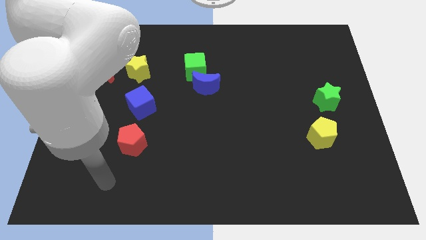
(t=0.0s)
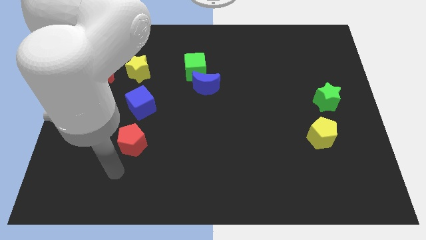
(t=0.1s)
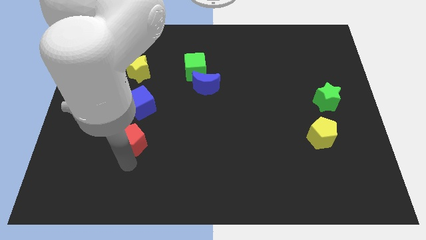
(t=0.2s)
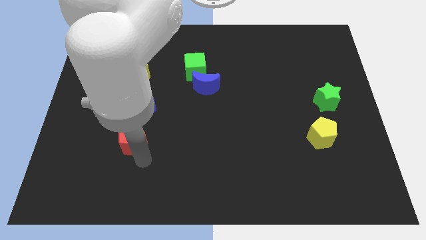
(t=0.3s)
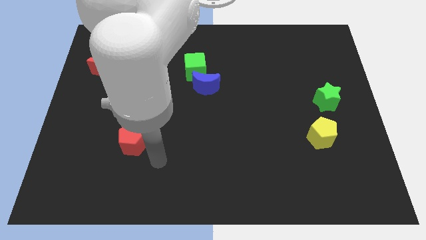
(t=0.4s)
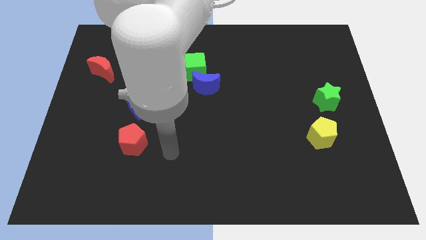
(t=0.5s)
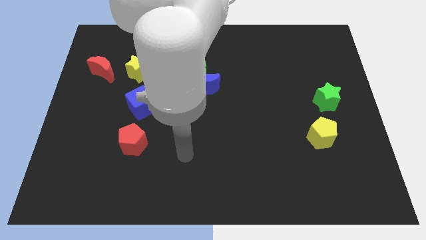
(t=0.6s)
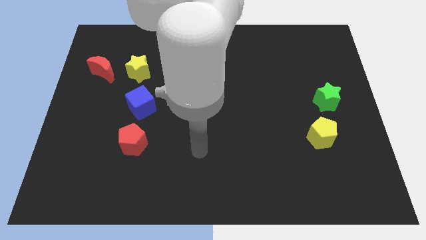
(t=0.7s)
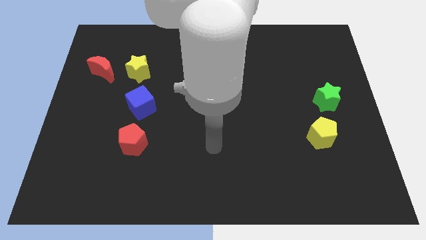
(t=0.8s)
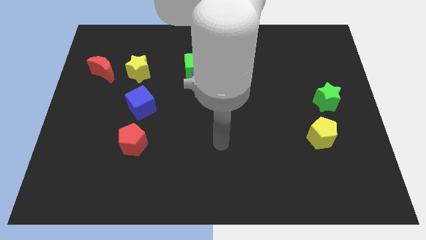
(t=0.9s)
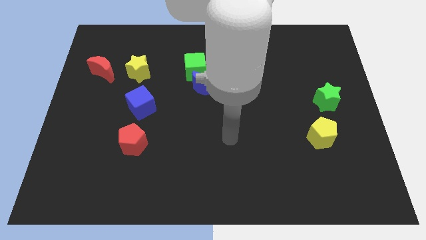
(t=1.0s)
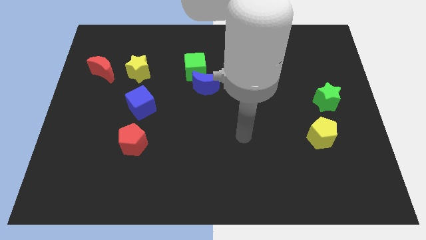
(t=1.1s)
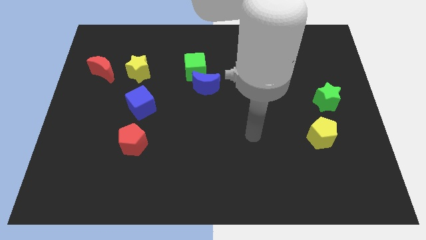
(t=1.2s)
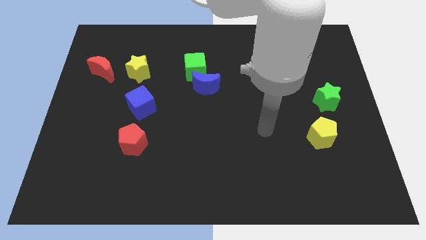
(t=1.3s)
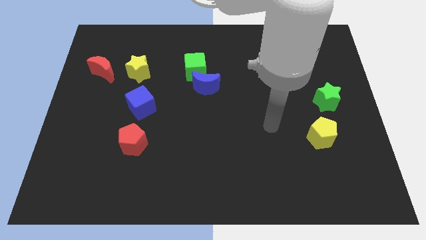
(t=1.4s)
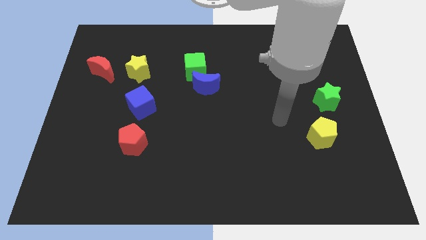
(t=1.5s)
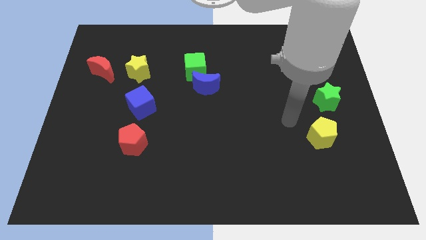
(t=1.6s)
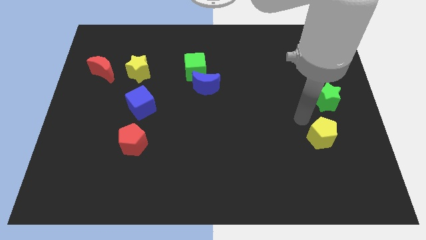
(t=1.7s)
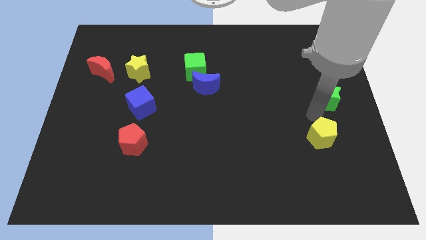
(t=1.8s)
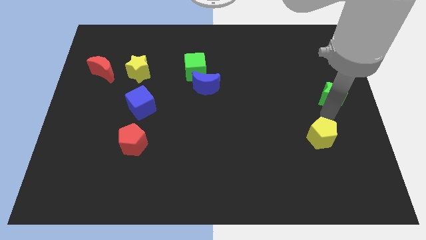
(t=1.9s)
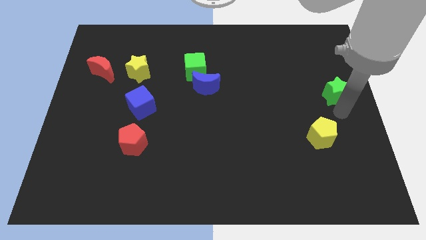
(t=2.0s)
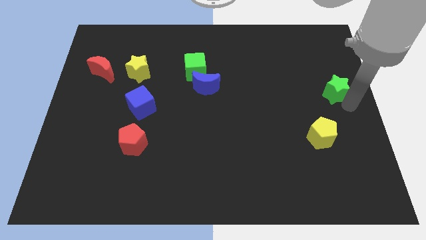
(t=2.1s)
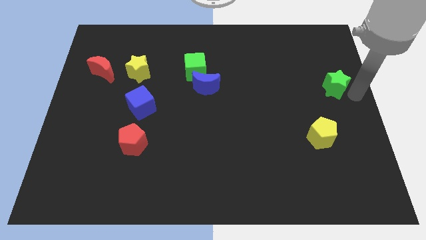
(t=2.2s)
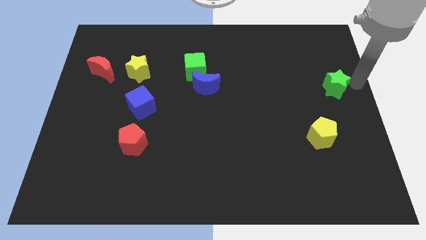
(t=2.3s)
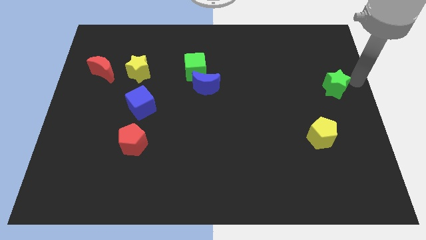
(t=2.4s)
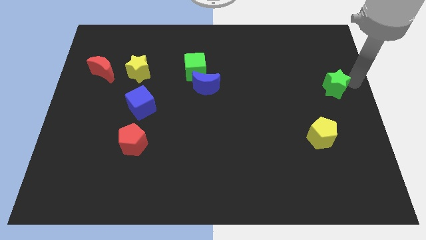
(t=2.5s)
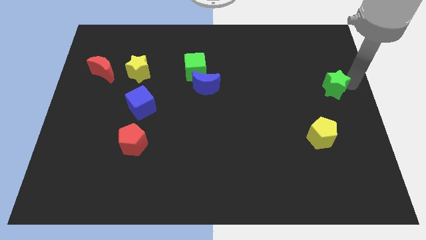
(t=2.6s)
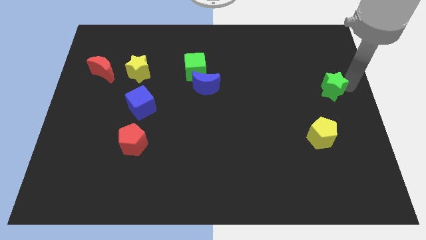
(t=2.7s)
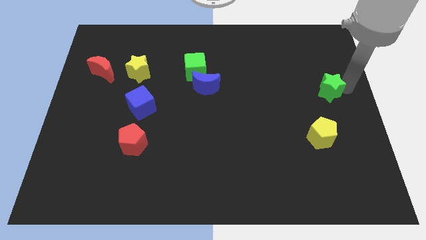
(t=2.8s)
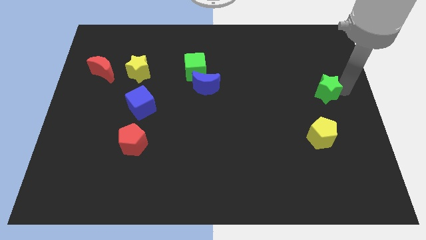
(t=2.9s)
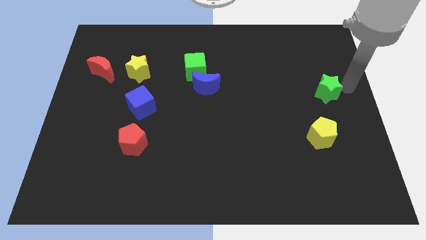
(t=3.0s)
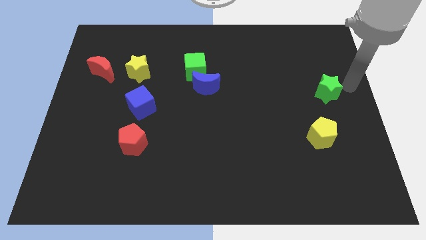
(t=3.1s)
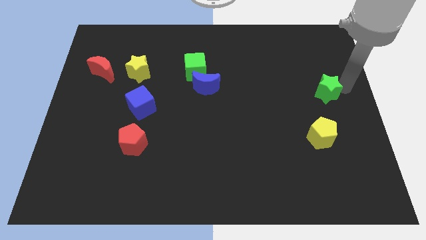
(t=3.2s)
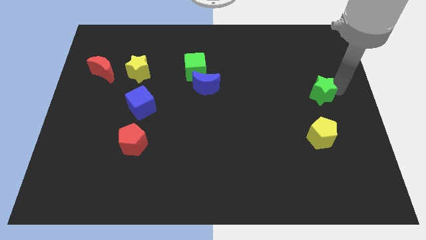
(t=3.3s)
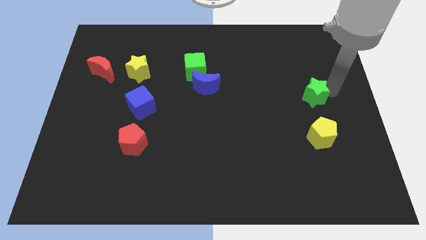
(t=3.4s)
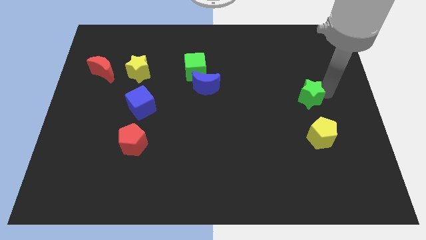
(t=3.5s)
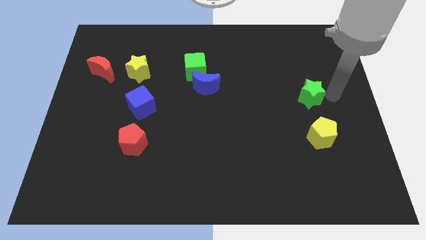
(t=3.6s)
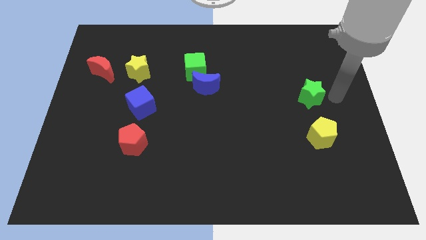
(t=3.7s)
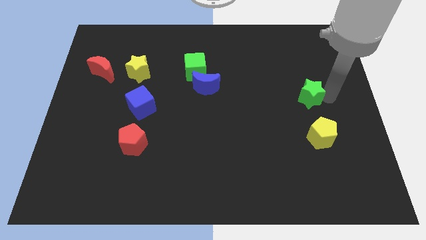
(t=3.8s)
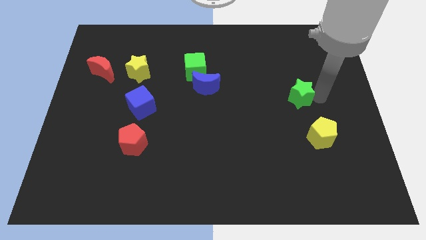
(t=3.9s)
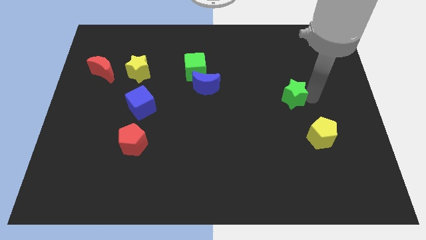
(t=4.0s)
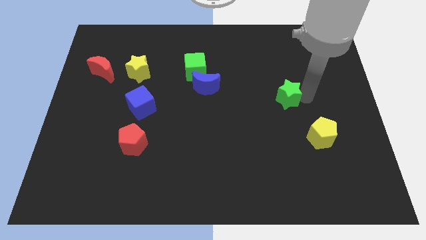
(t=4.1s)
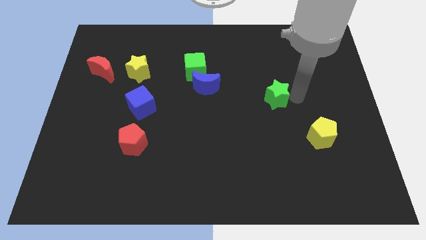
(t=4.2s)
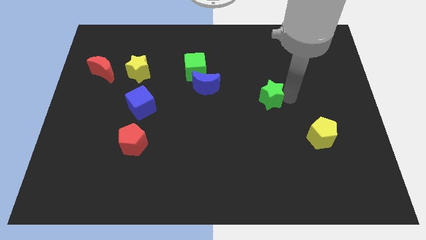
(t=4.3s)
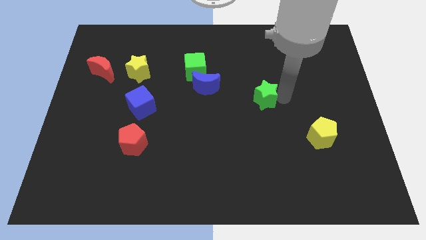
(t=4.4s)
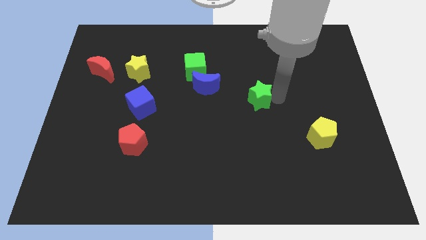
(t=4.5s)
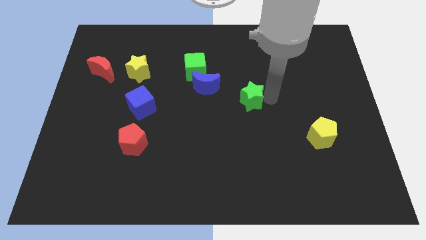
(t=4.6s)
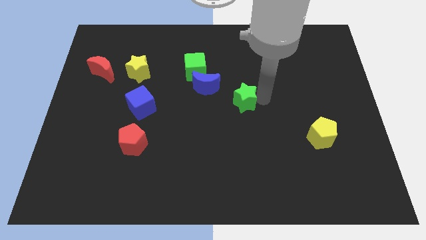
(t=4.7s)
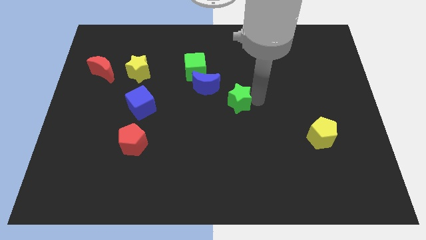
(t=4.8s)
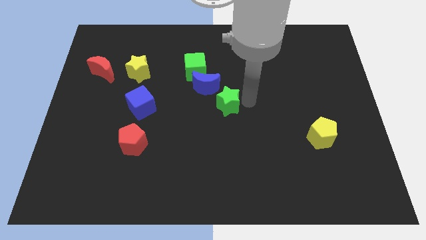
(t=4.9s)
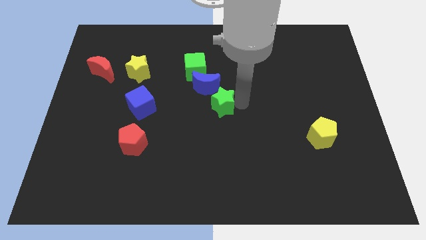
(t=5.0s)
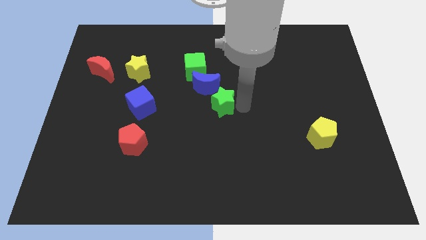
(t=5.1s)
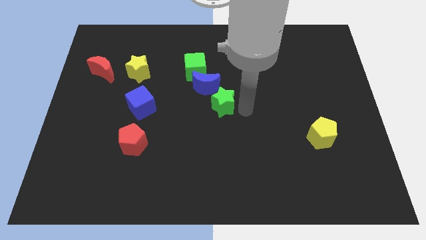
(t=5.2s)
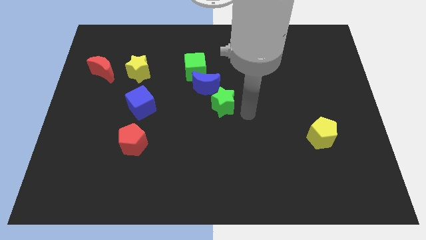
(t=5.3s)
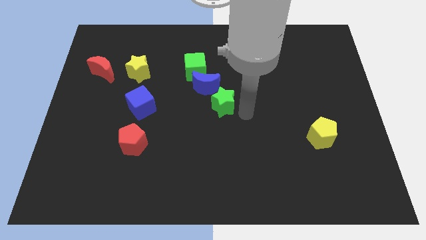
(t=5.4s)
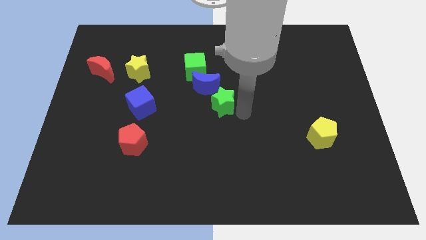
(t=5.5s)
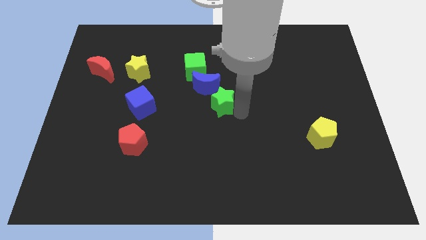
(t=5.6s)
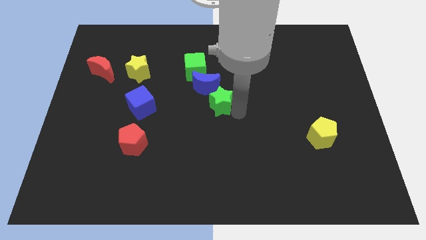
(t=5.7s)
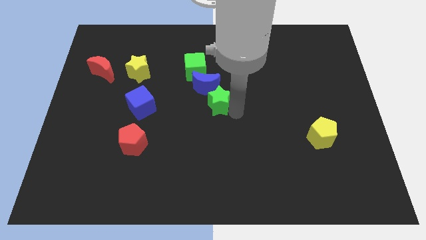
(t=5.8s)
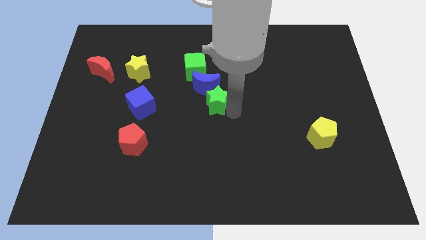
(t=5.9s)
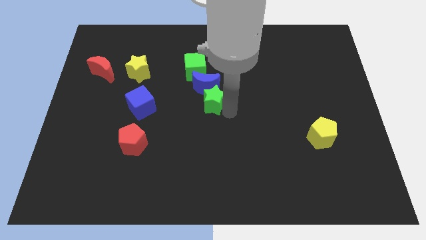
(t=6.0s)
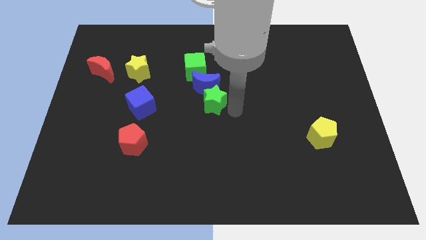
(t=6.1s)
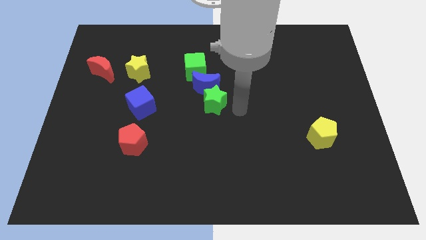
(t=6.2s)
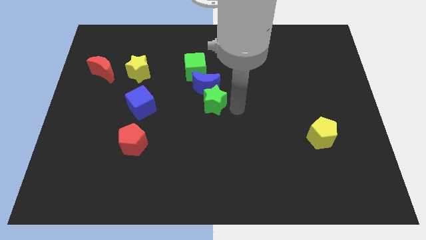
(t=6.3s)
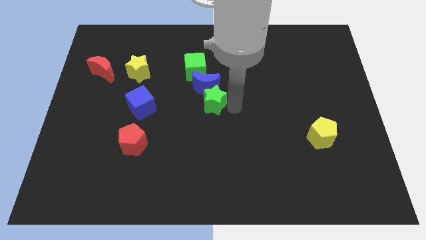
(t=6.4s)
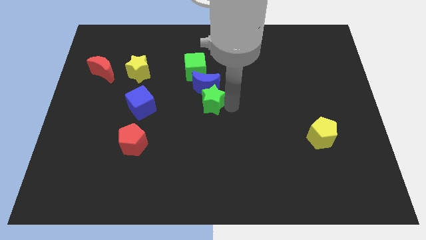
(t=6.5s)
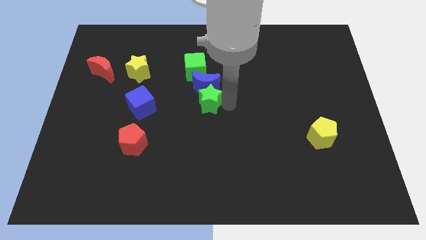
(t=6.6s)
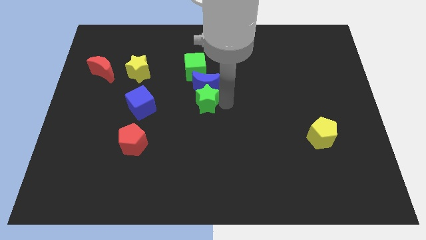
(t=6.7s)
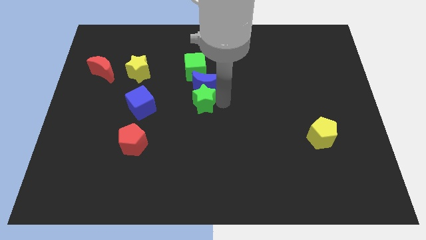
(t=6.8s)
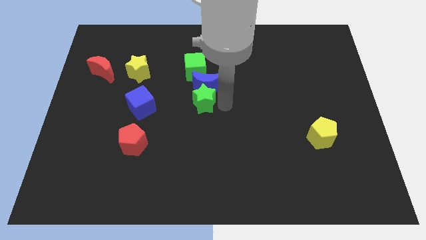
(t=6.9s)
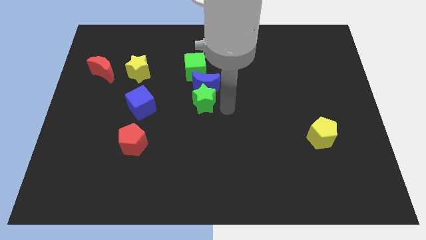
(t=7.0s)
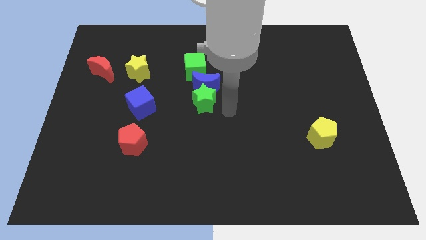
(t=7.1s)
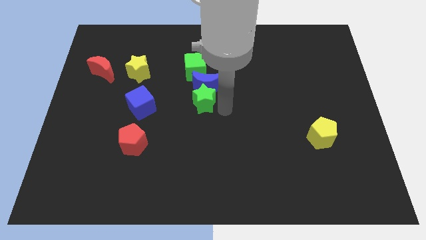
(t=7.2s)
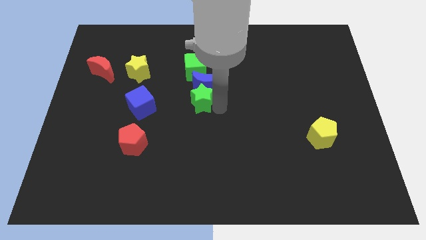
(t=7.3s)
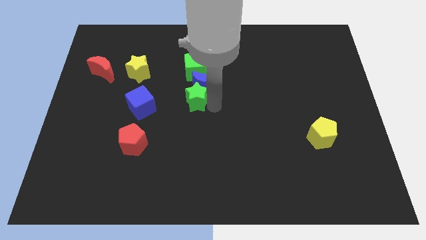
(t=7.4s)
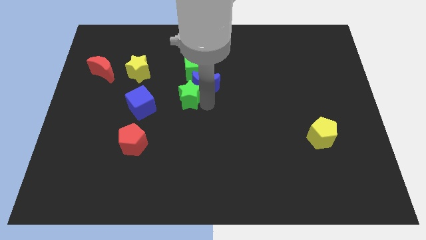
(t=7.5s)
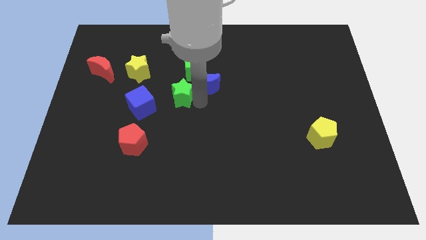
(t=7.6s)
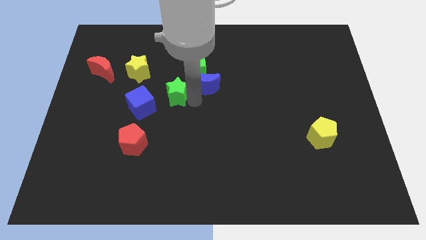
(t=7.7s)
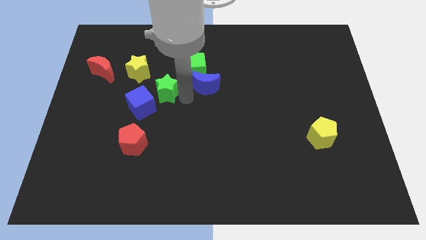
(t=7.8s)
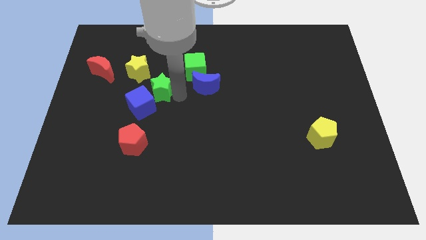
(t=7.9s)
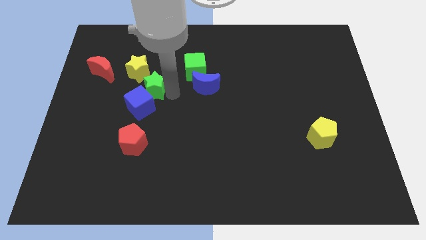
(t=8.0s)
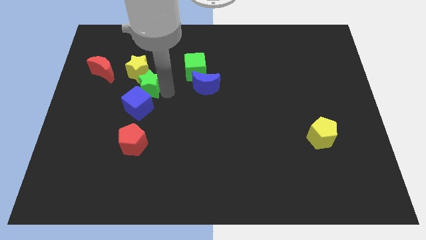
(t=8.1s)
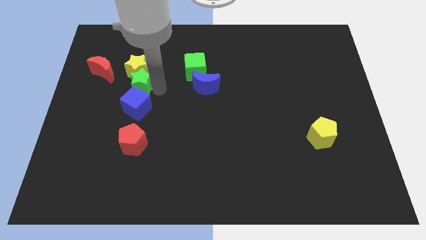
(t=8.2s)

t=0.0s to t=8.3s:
put the green star to the bottom left side of the yellow star
